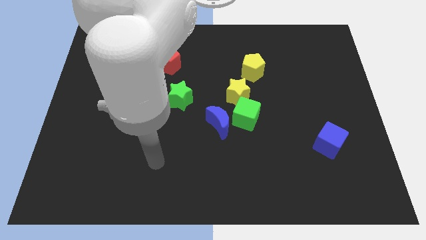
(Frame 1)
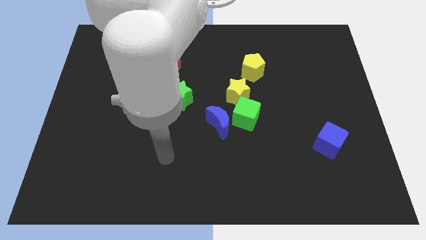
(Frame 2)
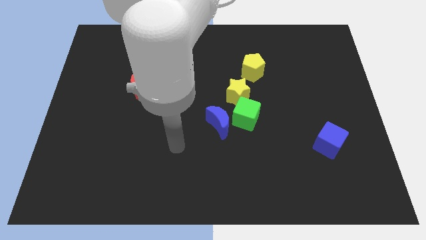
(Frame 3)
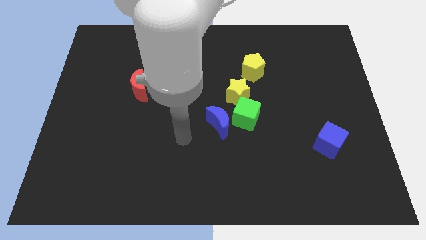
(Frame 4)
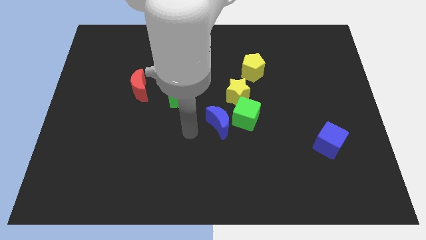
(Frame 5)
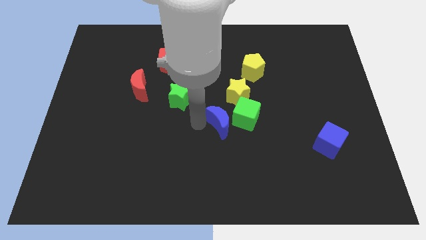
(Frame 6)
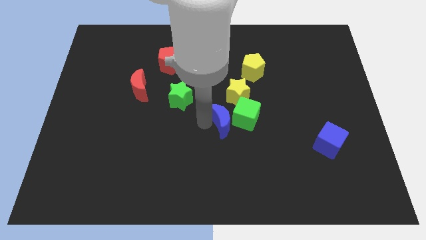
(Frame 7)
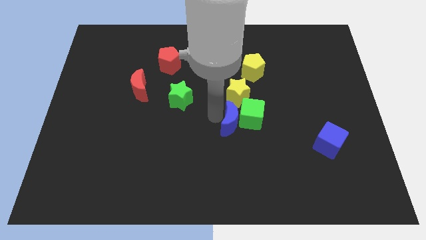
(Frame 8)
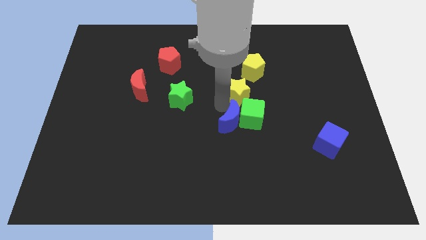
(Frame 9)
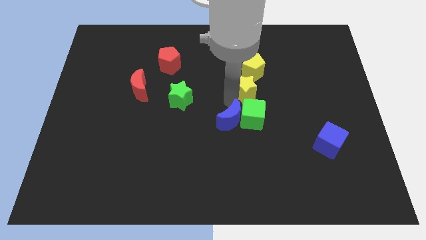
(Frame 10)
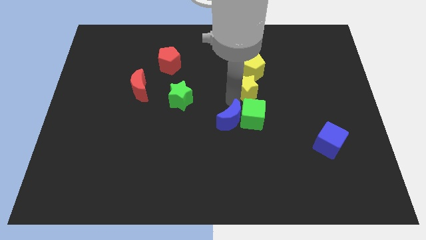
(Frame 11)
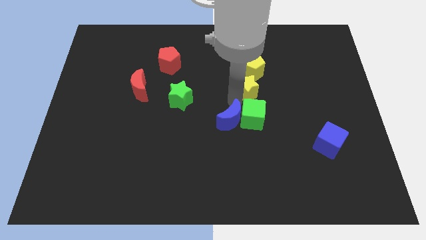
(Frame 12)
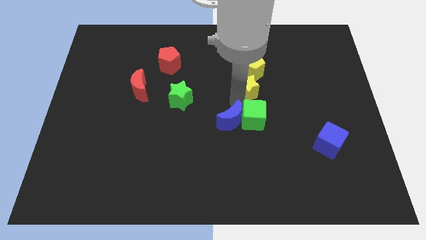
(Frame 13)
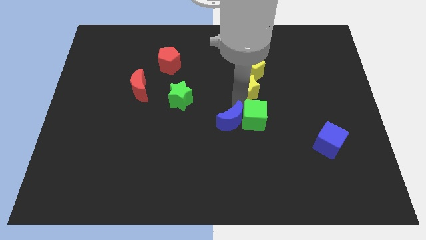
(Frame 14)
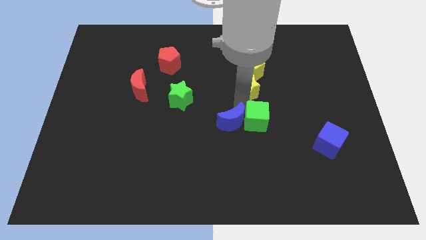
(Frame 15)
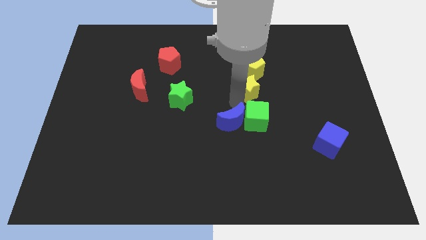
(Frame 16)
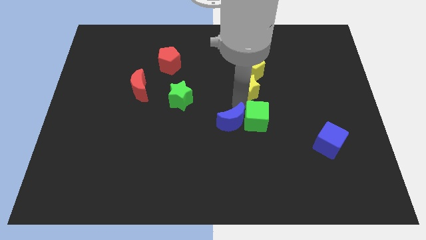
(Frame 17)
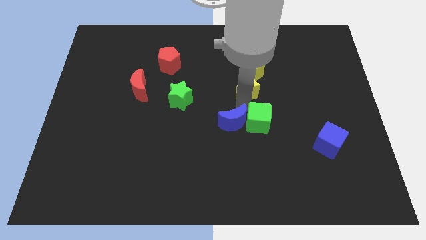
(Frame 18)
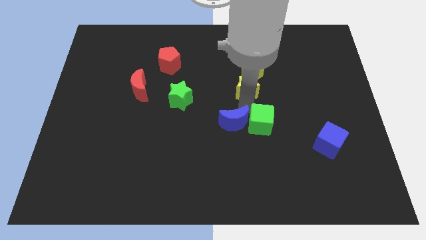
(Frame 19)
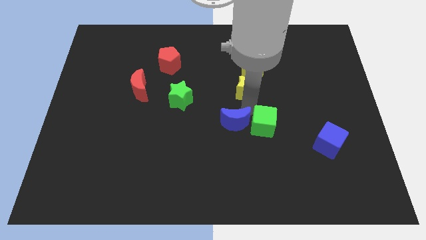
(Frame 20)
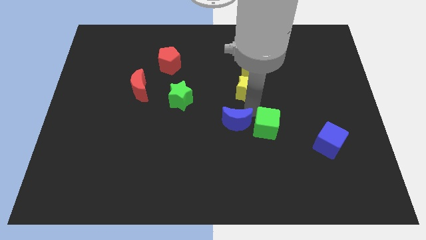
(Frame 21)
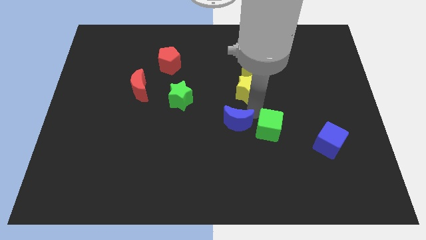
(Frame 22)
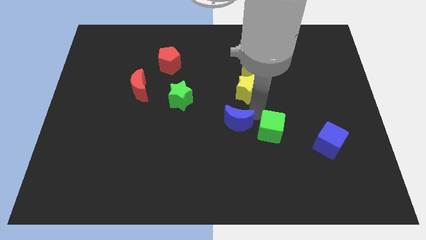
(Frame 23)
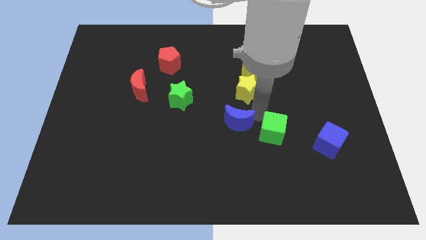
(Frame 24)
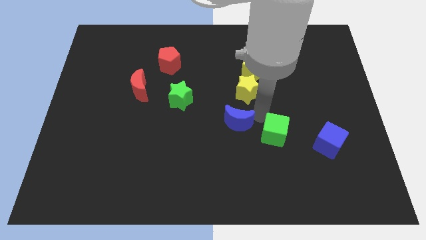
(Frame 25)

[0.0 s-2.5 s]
separate the green cube from the blue moon and yellow star

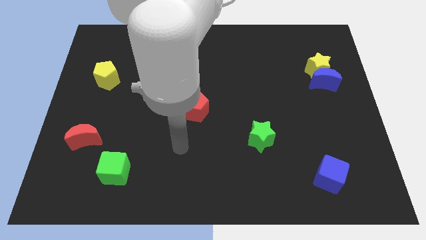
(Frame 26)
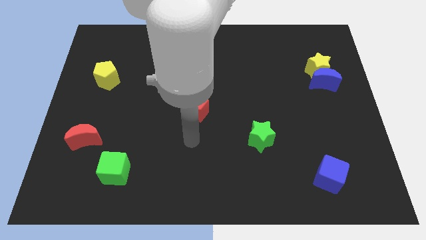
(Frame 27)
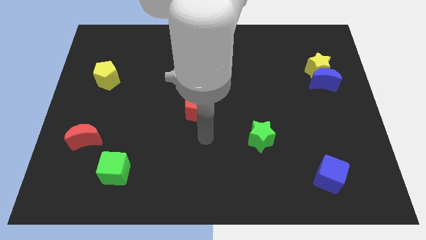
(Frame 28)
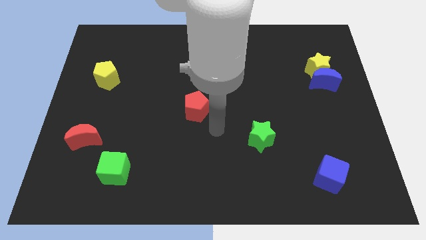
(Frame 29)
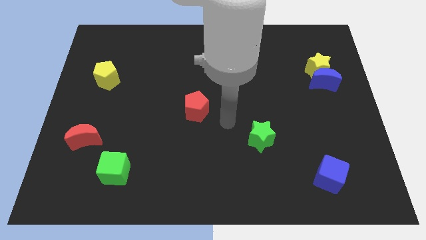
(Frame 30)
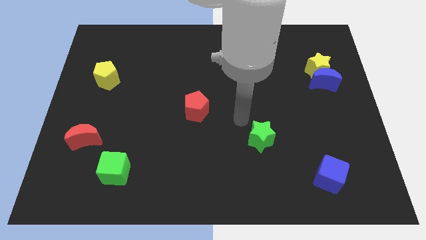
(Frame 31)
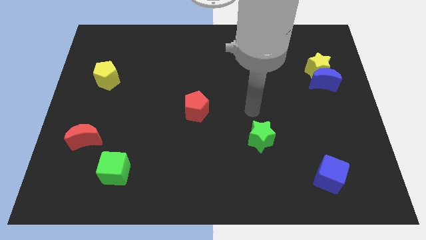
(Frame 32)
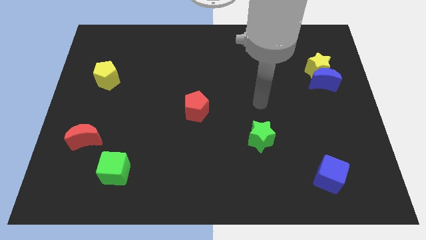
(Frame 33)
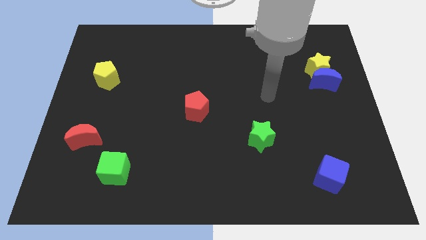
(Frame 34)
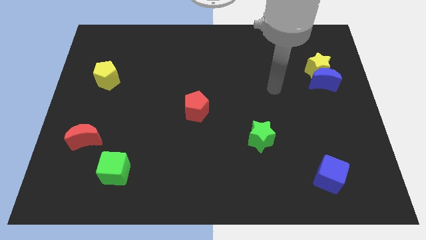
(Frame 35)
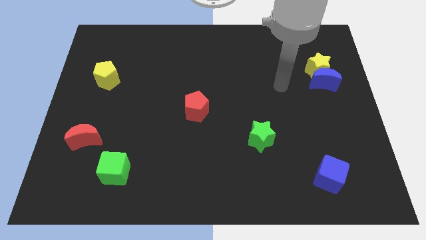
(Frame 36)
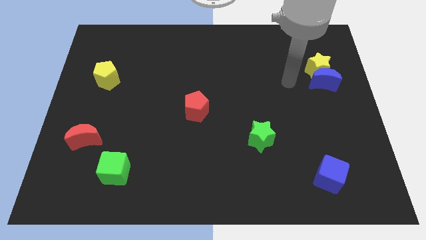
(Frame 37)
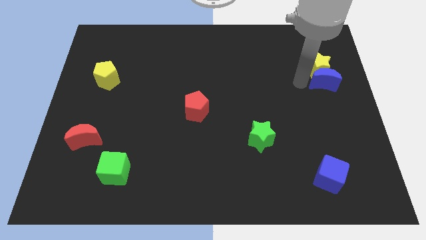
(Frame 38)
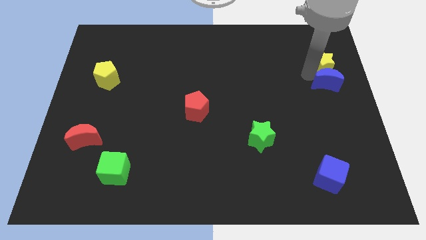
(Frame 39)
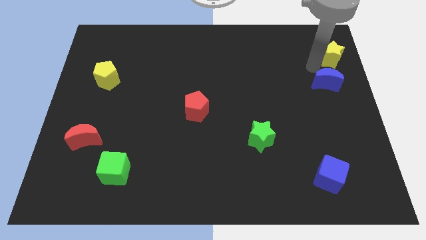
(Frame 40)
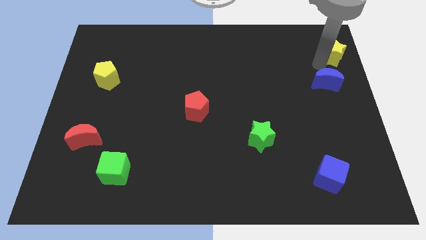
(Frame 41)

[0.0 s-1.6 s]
pull the blue moon apart from the yellow star

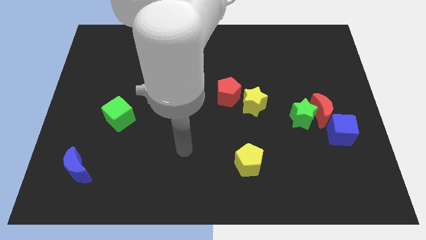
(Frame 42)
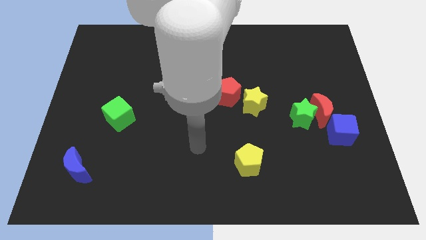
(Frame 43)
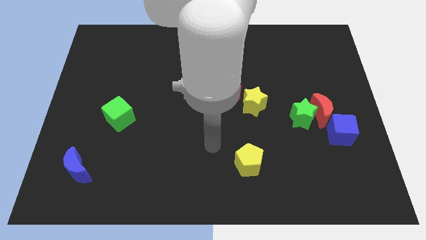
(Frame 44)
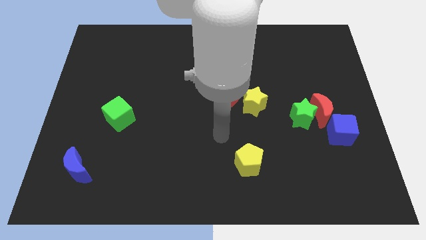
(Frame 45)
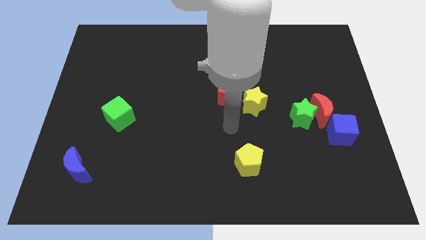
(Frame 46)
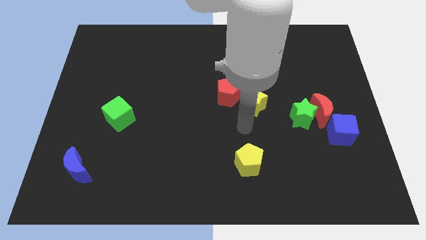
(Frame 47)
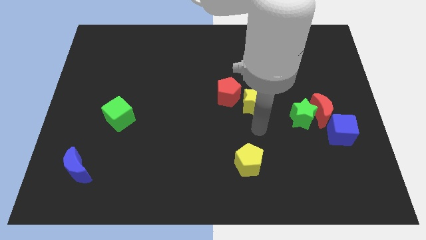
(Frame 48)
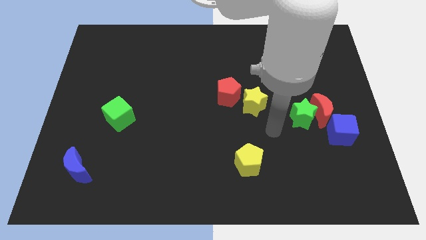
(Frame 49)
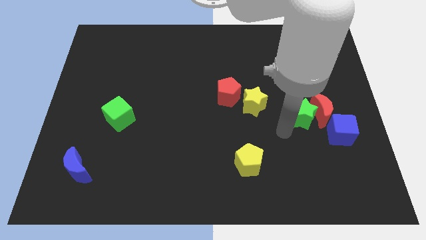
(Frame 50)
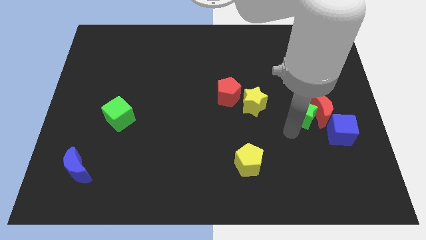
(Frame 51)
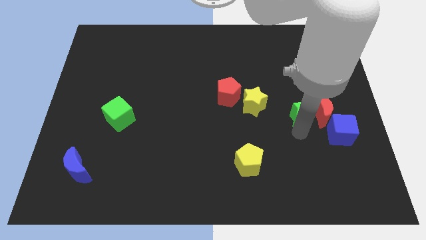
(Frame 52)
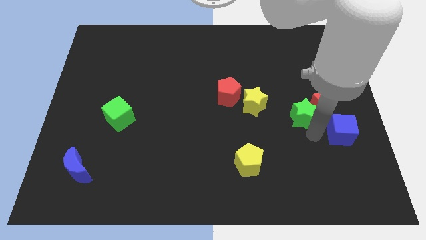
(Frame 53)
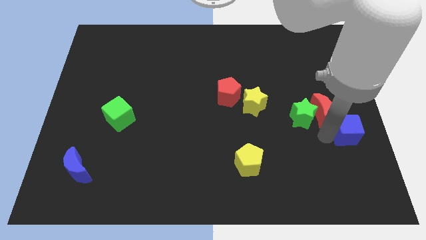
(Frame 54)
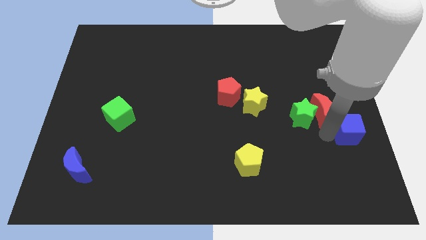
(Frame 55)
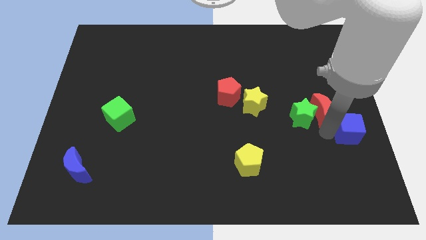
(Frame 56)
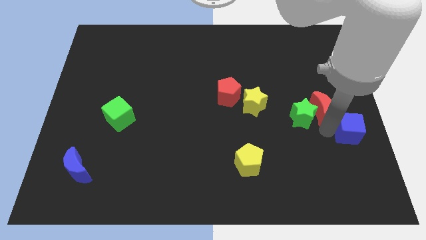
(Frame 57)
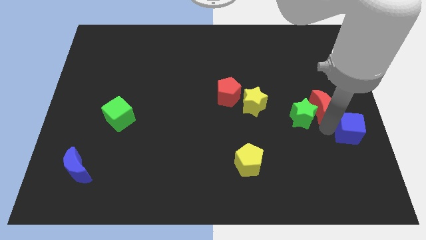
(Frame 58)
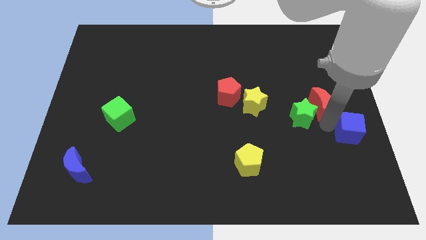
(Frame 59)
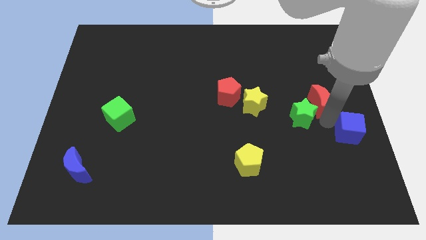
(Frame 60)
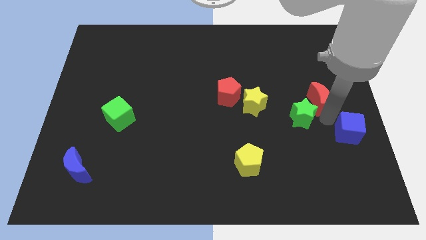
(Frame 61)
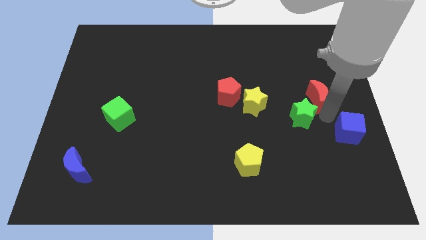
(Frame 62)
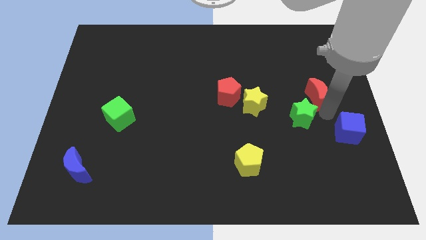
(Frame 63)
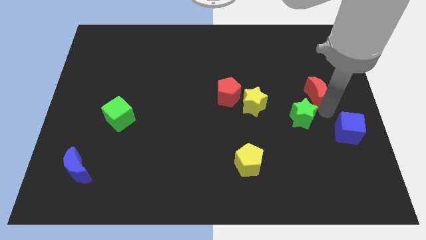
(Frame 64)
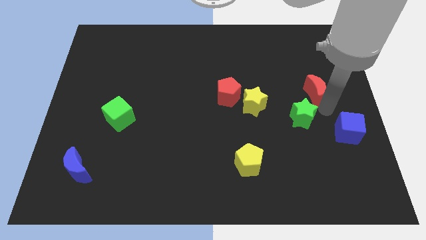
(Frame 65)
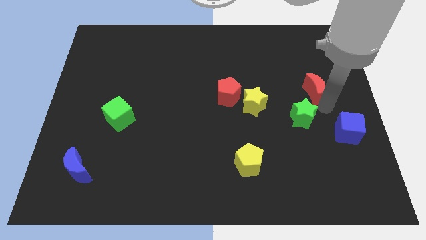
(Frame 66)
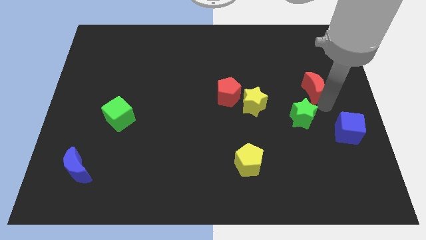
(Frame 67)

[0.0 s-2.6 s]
move the red moon away from the green star and blue cube

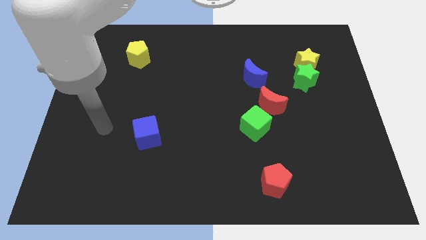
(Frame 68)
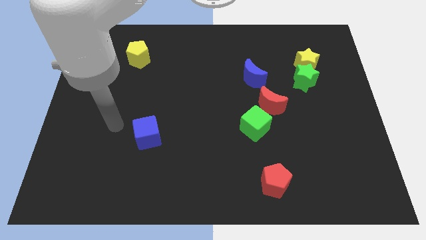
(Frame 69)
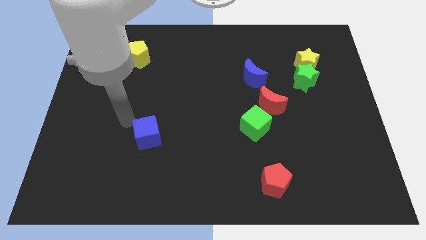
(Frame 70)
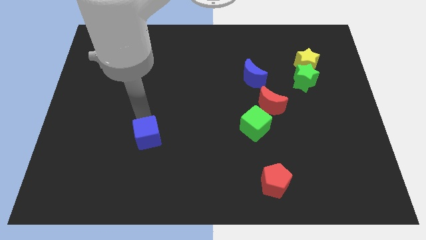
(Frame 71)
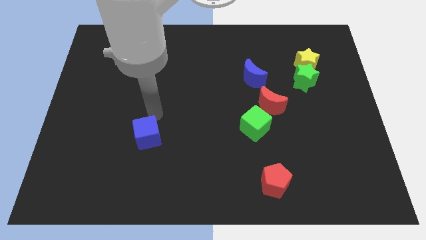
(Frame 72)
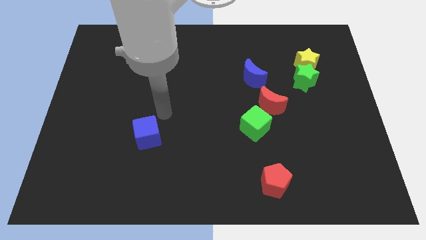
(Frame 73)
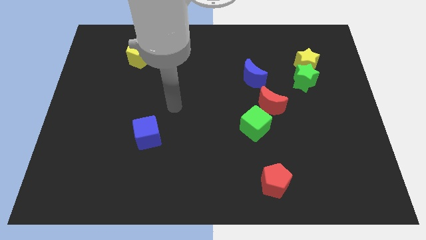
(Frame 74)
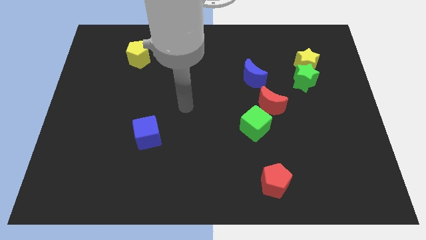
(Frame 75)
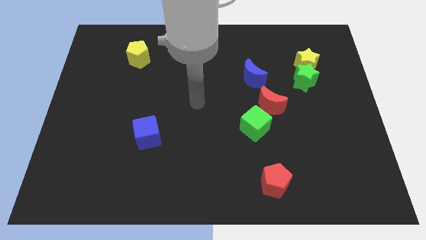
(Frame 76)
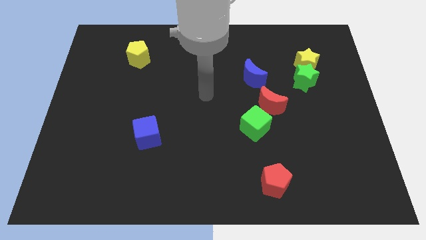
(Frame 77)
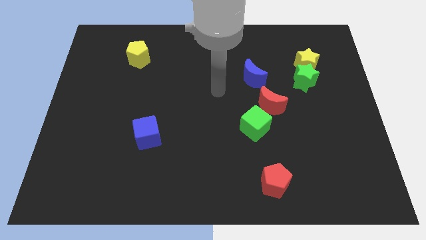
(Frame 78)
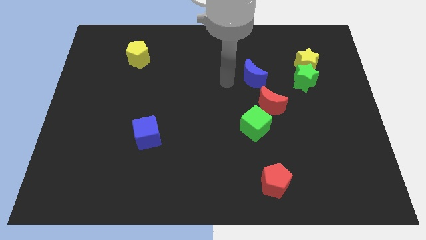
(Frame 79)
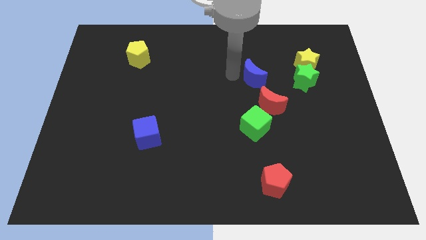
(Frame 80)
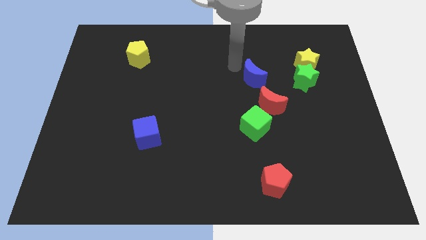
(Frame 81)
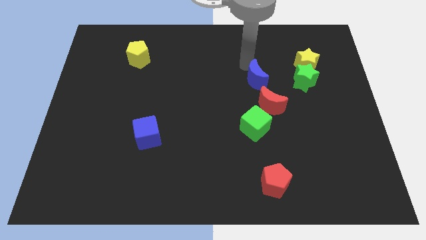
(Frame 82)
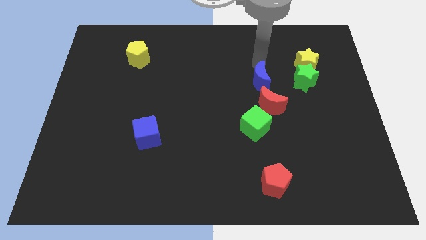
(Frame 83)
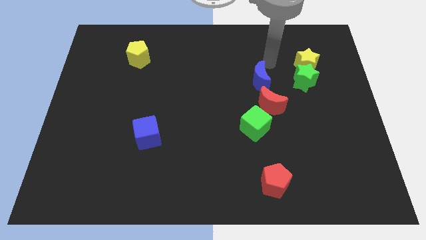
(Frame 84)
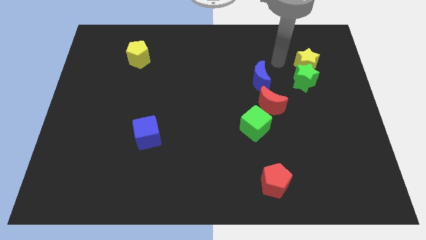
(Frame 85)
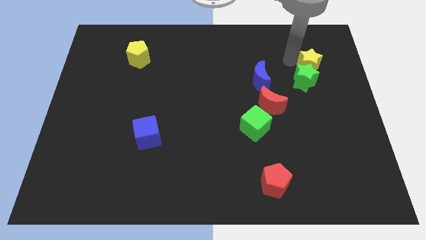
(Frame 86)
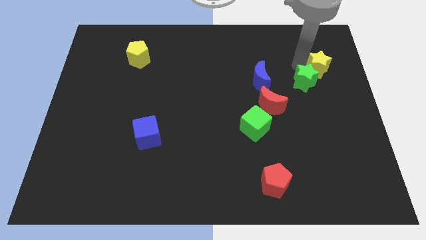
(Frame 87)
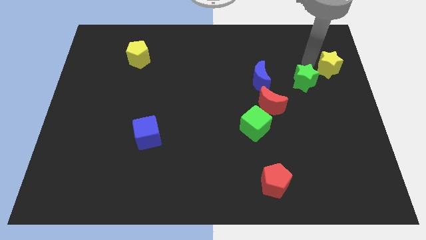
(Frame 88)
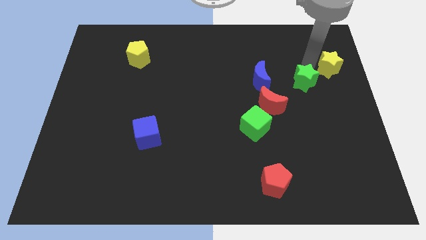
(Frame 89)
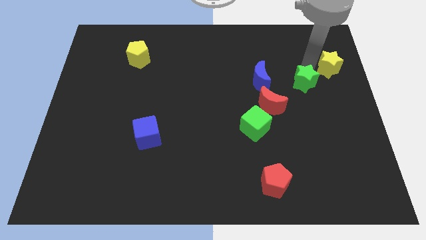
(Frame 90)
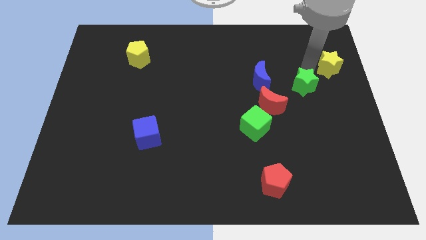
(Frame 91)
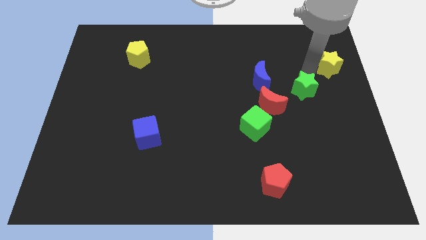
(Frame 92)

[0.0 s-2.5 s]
move the green star away from the yellow star

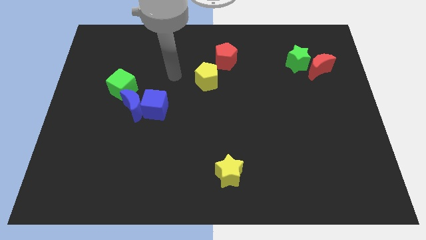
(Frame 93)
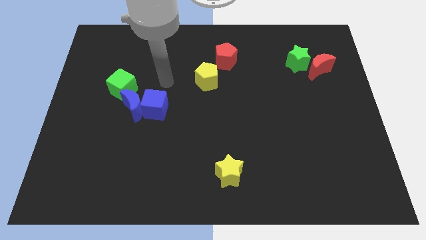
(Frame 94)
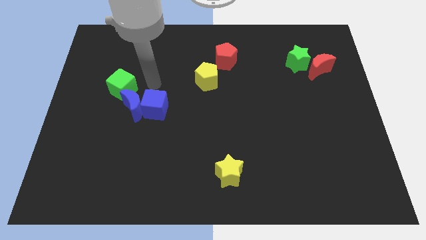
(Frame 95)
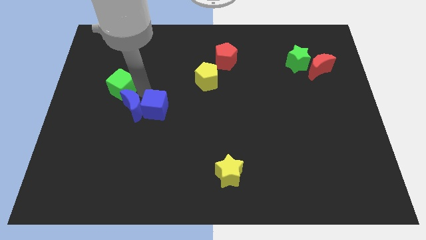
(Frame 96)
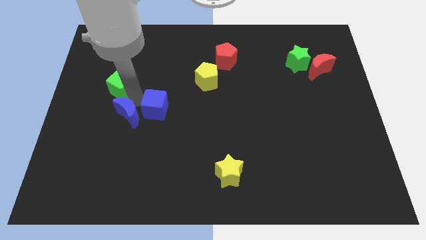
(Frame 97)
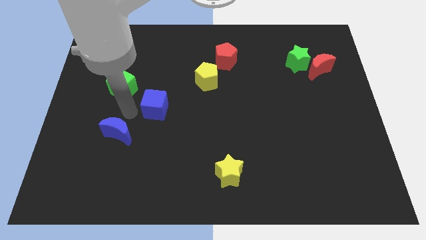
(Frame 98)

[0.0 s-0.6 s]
move the blue cube away from the blue moon
